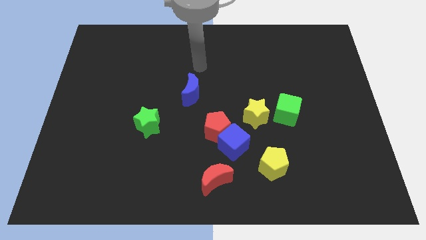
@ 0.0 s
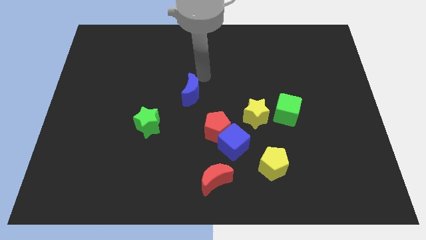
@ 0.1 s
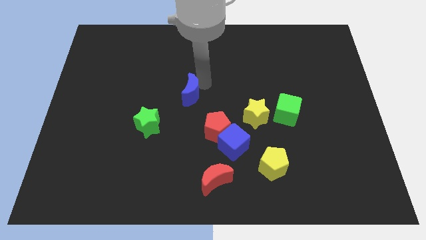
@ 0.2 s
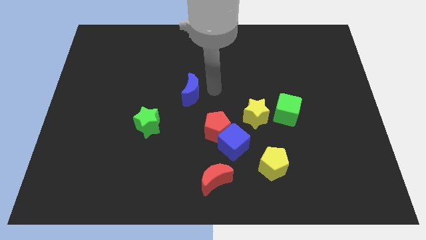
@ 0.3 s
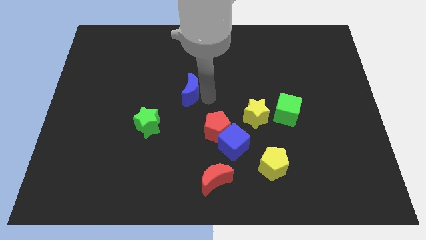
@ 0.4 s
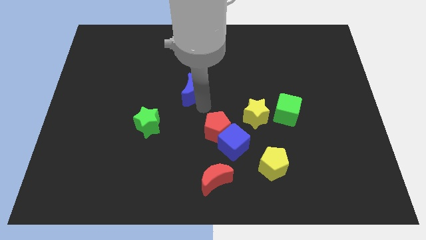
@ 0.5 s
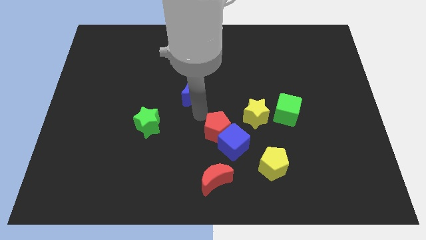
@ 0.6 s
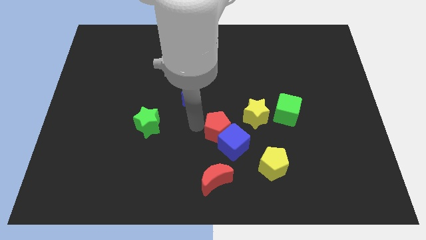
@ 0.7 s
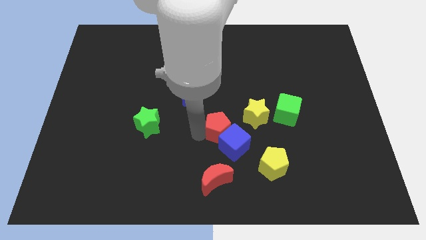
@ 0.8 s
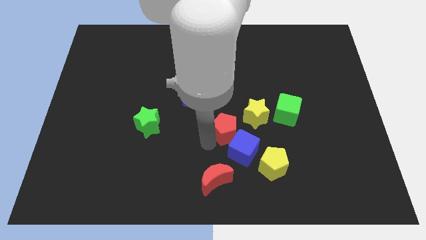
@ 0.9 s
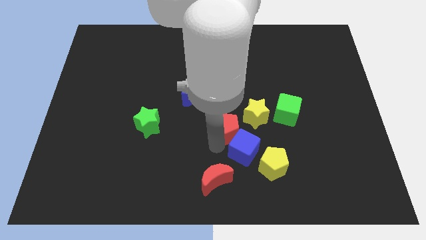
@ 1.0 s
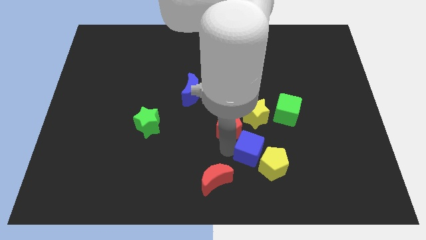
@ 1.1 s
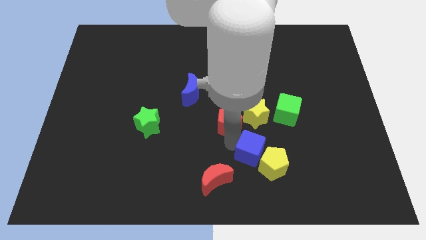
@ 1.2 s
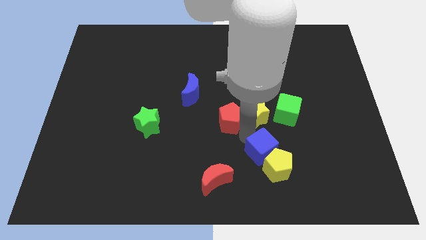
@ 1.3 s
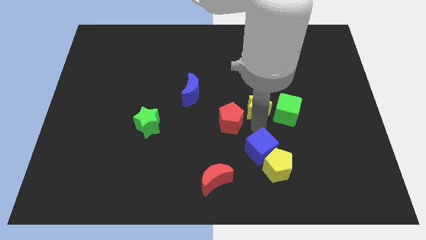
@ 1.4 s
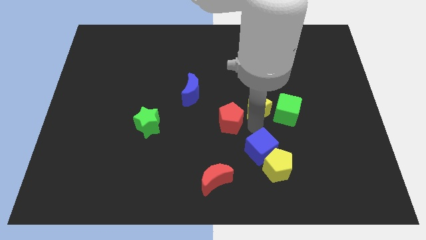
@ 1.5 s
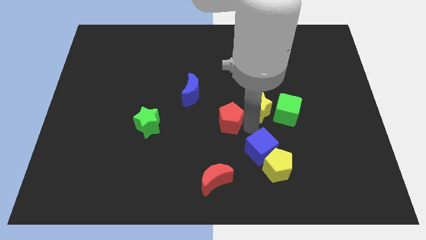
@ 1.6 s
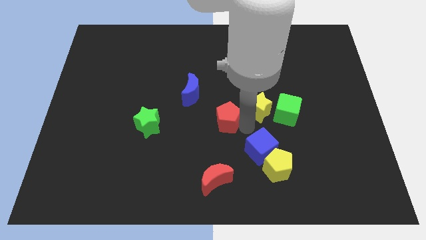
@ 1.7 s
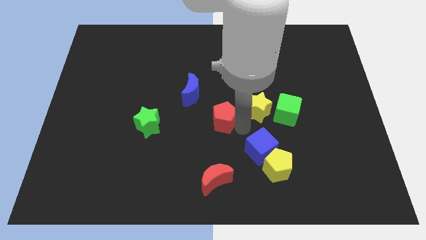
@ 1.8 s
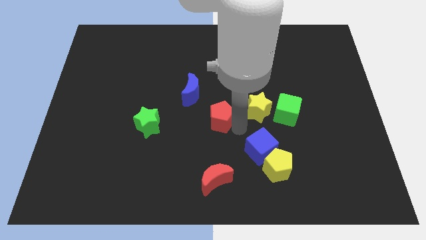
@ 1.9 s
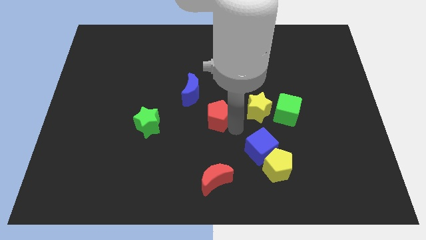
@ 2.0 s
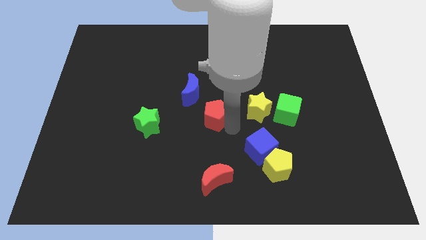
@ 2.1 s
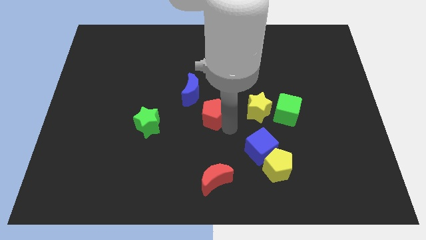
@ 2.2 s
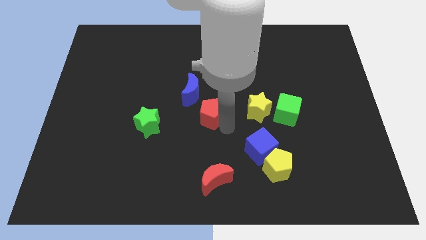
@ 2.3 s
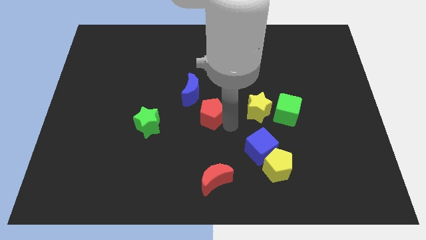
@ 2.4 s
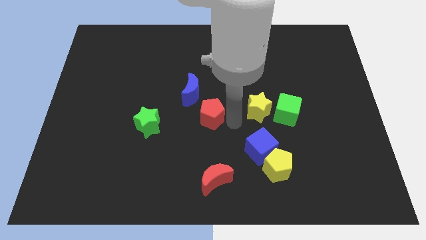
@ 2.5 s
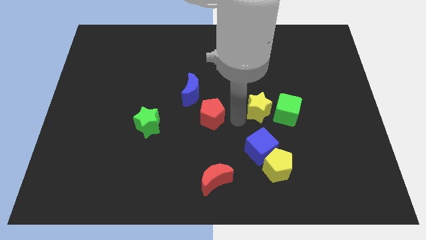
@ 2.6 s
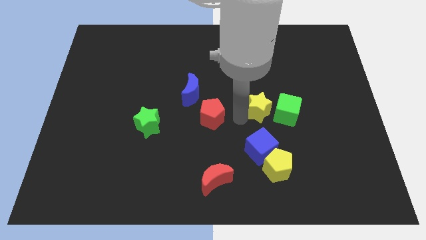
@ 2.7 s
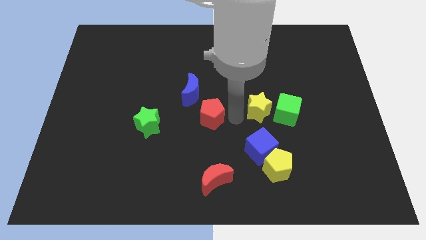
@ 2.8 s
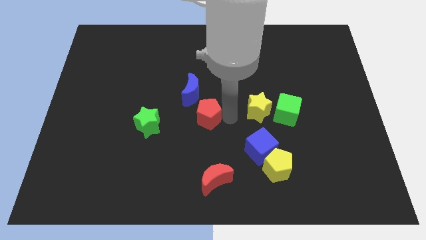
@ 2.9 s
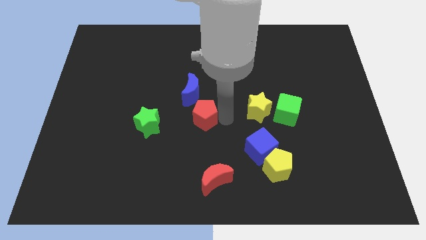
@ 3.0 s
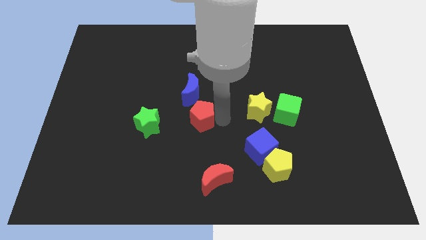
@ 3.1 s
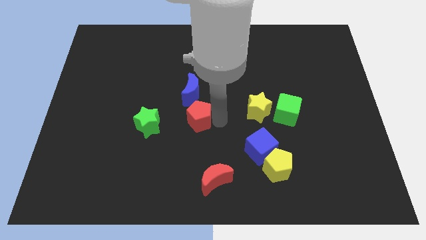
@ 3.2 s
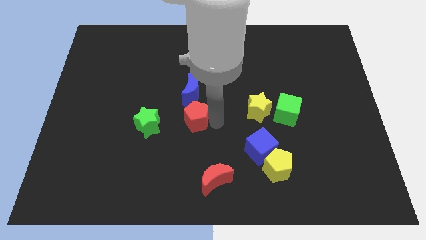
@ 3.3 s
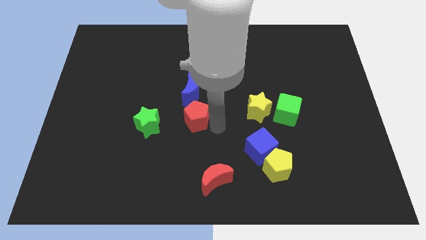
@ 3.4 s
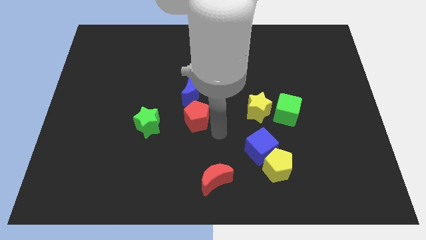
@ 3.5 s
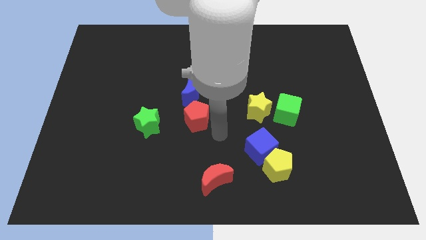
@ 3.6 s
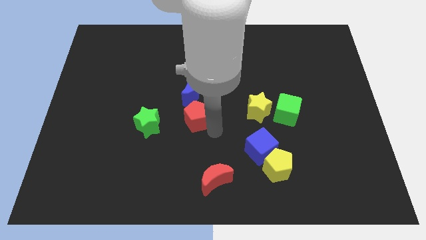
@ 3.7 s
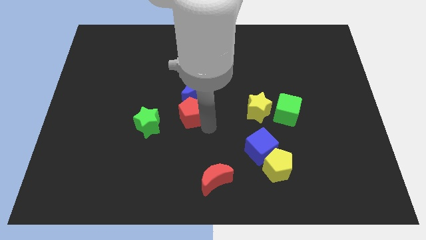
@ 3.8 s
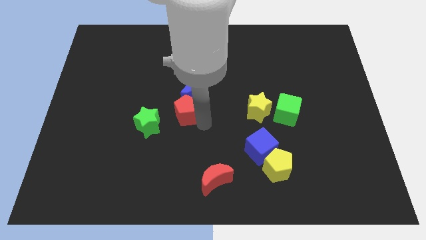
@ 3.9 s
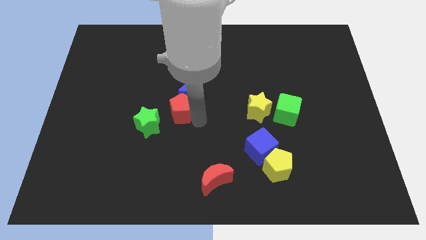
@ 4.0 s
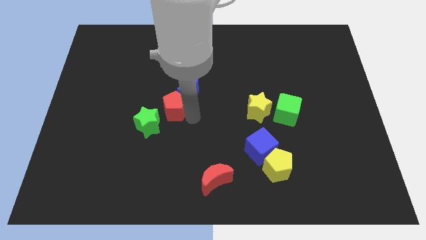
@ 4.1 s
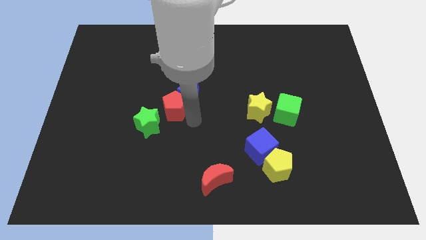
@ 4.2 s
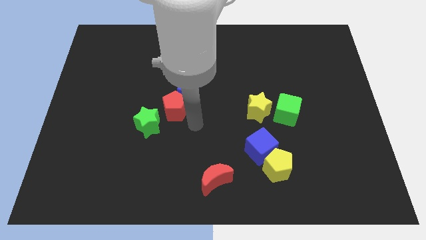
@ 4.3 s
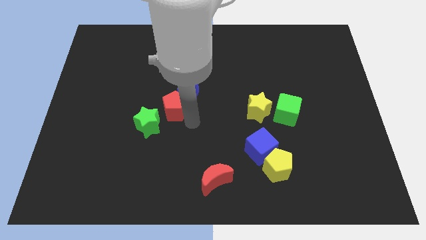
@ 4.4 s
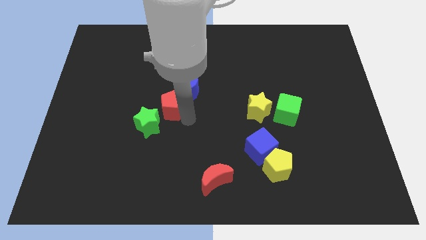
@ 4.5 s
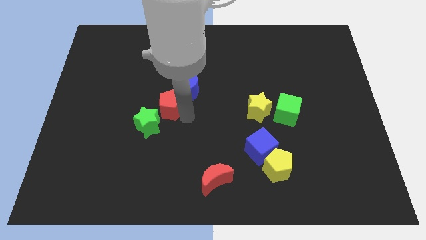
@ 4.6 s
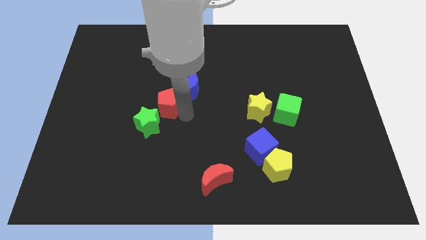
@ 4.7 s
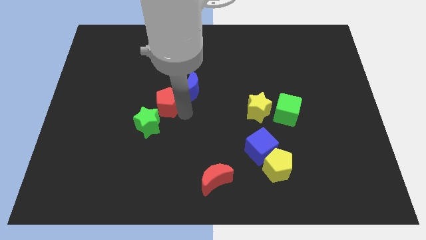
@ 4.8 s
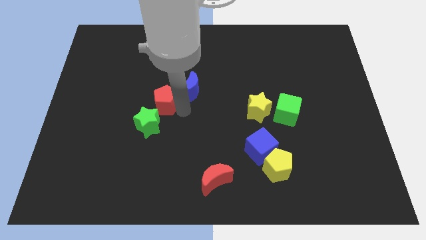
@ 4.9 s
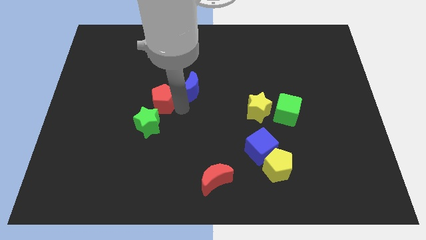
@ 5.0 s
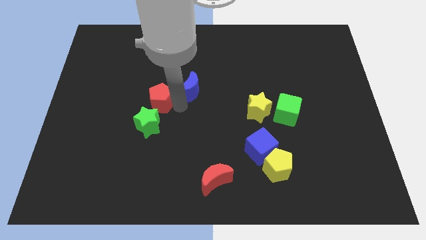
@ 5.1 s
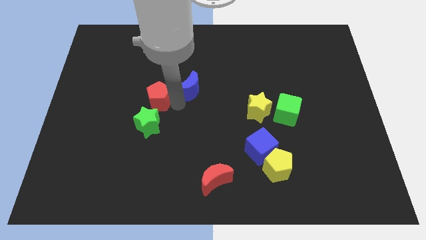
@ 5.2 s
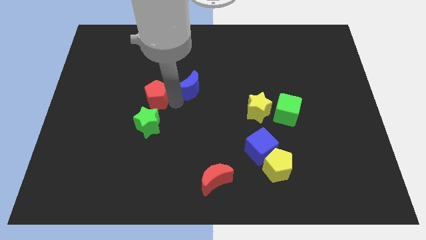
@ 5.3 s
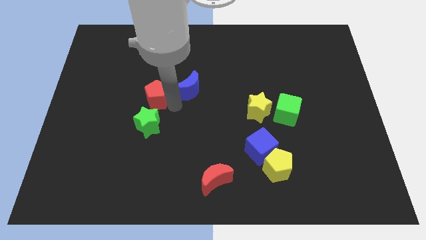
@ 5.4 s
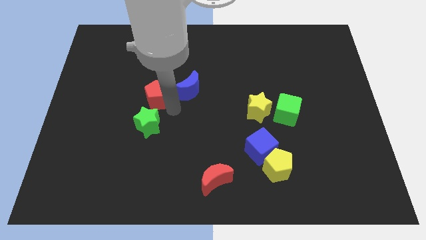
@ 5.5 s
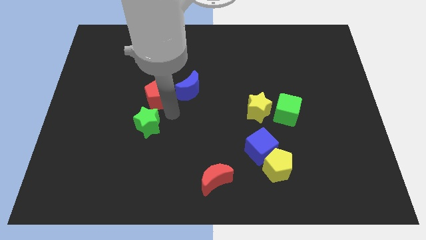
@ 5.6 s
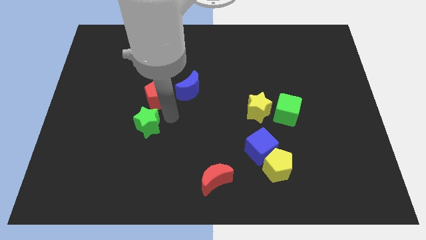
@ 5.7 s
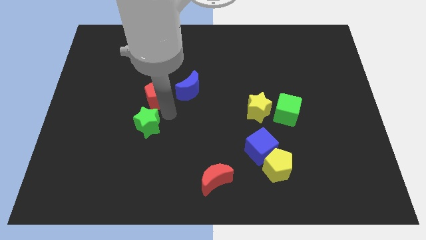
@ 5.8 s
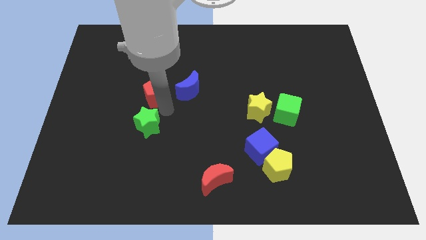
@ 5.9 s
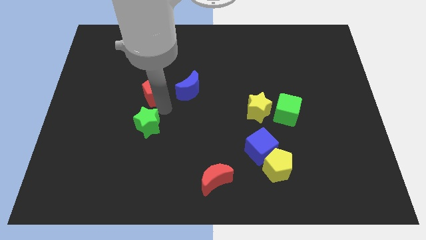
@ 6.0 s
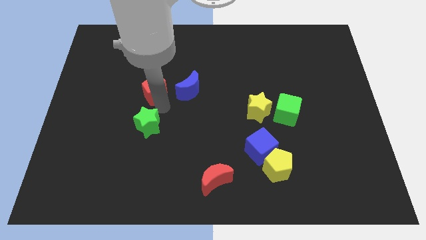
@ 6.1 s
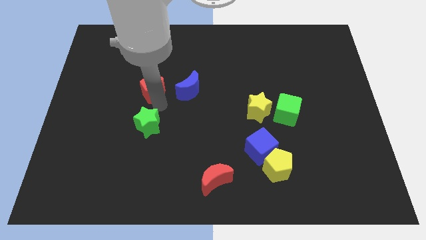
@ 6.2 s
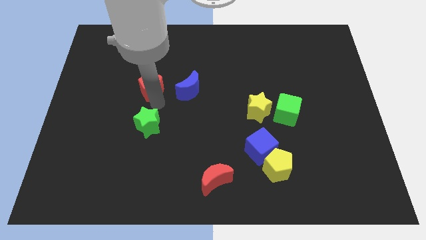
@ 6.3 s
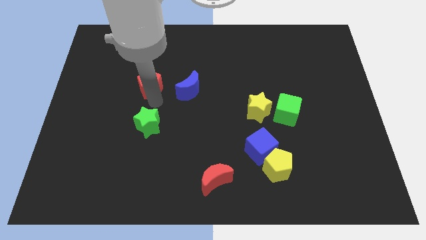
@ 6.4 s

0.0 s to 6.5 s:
slide the red pentagon up and then to the left

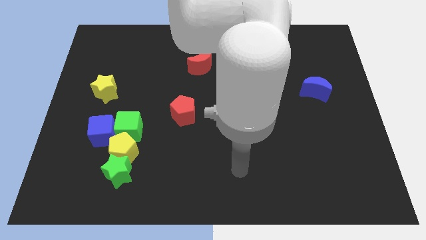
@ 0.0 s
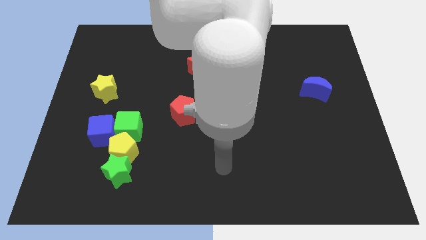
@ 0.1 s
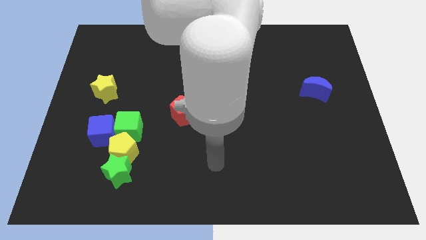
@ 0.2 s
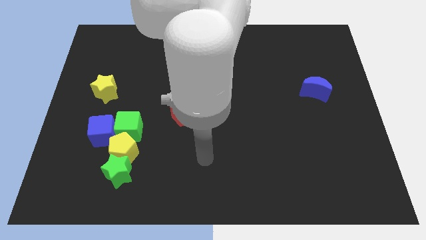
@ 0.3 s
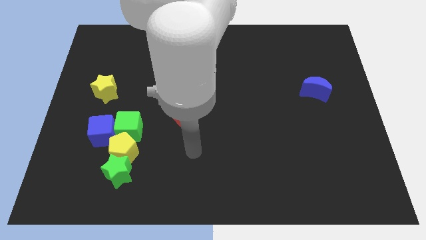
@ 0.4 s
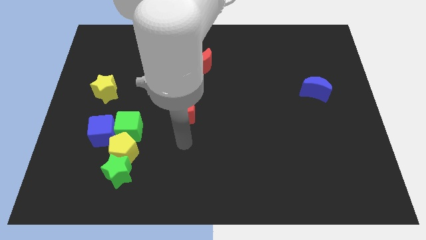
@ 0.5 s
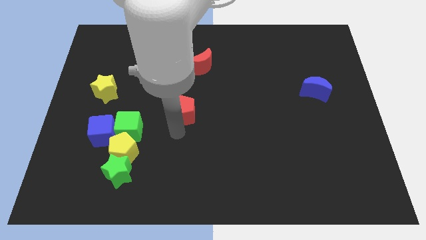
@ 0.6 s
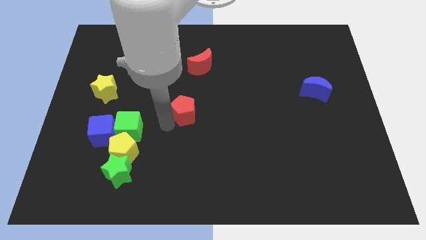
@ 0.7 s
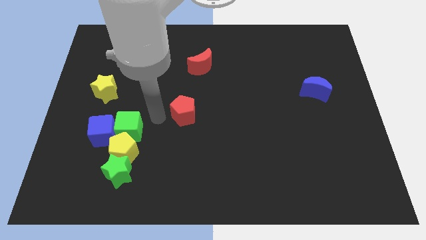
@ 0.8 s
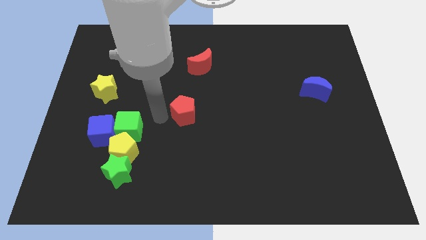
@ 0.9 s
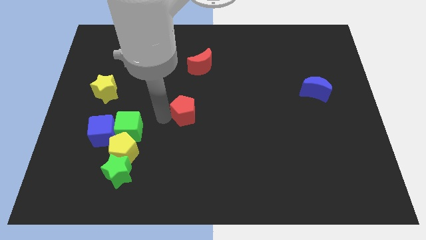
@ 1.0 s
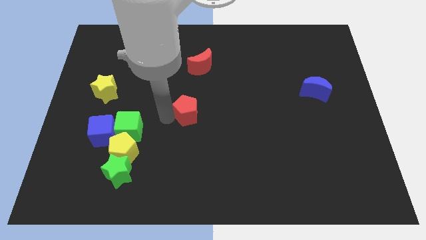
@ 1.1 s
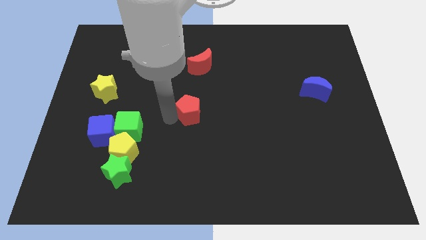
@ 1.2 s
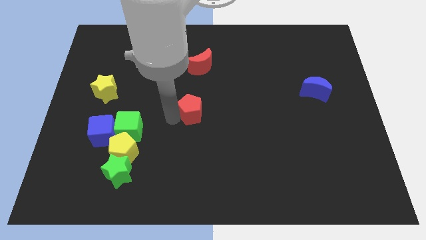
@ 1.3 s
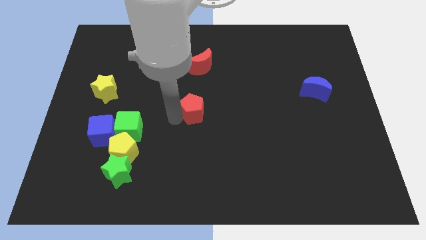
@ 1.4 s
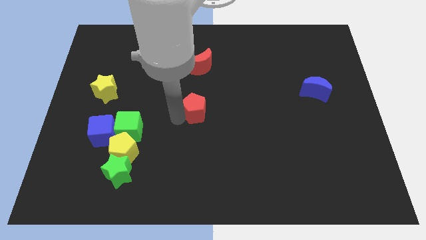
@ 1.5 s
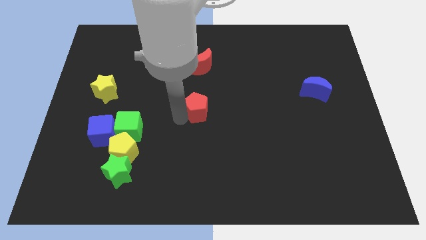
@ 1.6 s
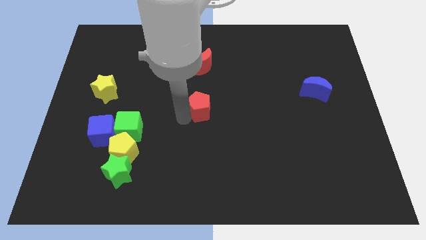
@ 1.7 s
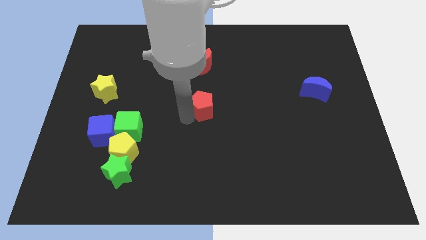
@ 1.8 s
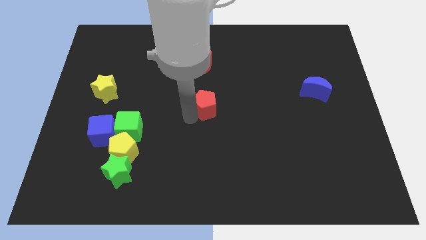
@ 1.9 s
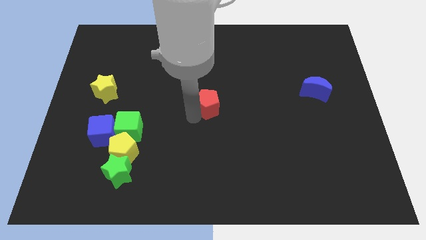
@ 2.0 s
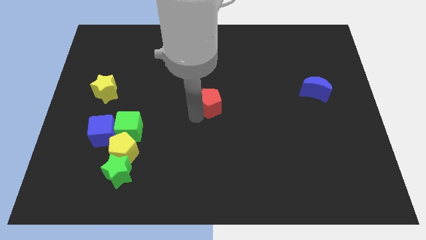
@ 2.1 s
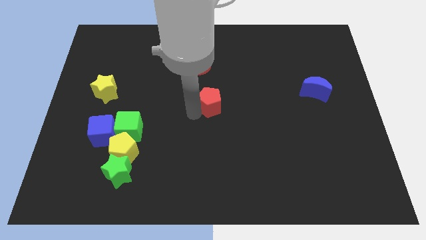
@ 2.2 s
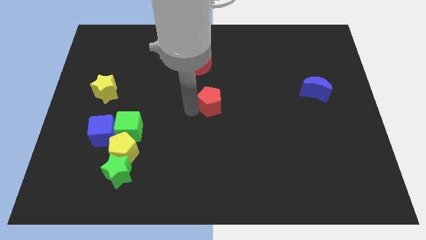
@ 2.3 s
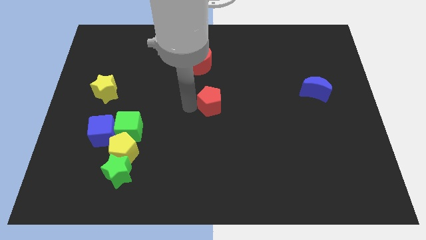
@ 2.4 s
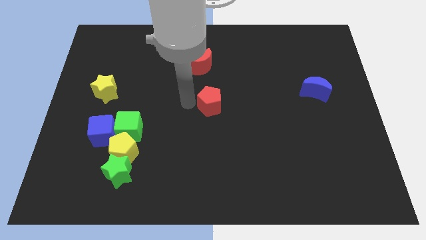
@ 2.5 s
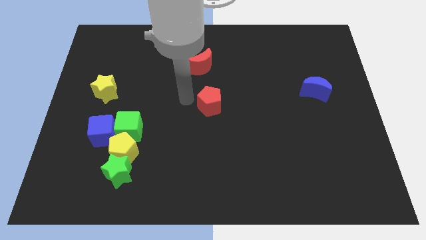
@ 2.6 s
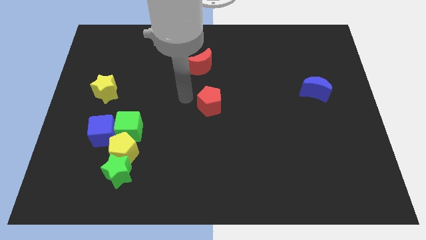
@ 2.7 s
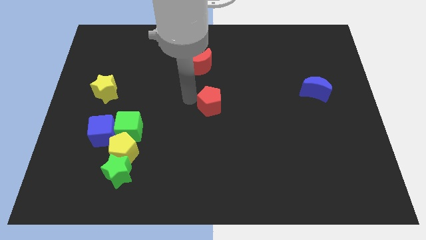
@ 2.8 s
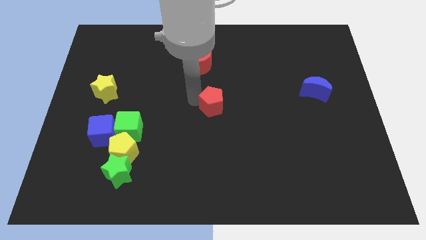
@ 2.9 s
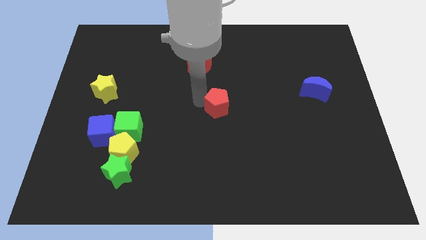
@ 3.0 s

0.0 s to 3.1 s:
slide the red pentagon right somewhat
